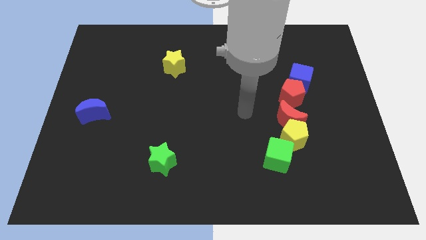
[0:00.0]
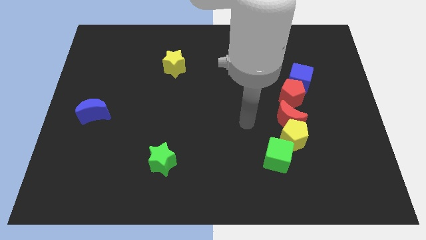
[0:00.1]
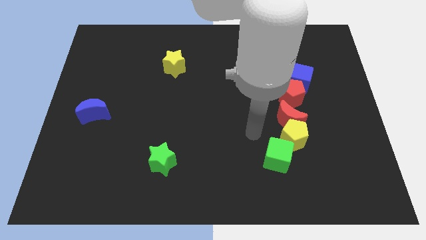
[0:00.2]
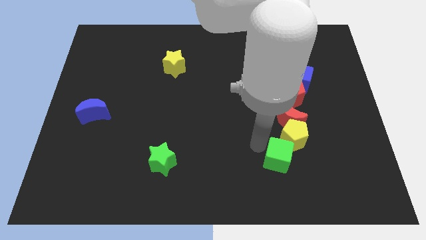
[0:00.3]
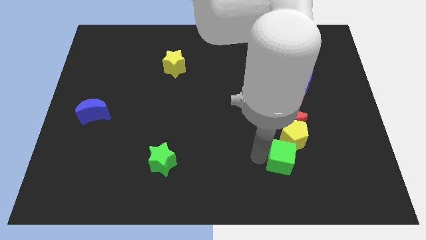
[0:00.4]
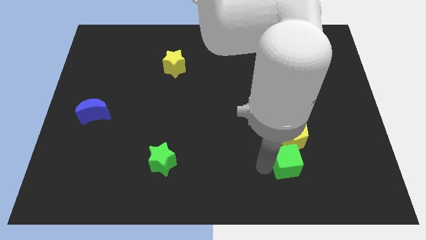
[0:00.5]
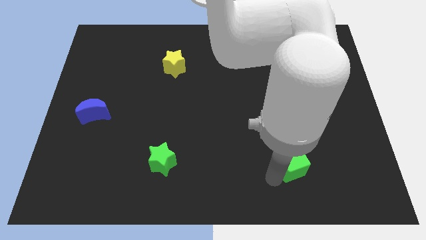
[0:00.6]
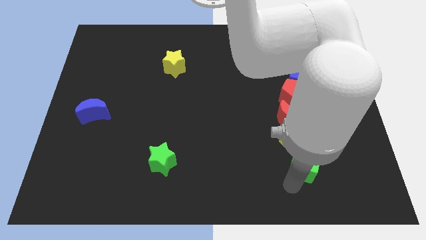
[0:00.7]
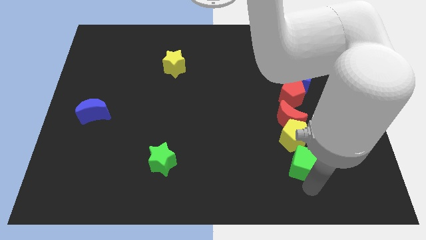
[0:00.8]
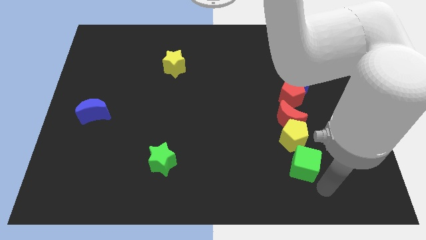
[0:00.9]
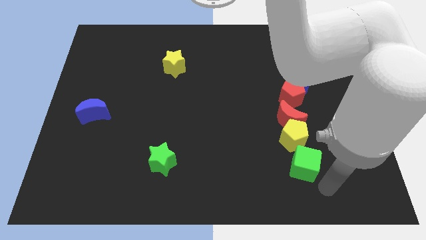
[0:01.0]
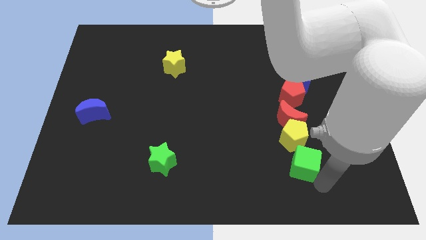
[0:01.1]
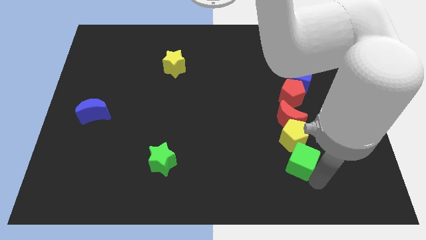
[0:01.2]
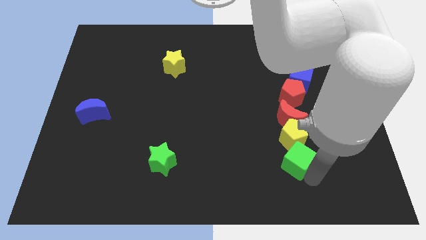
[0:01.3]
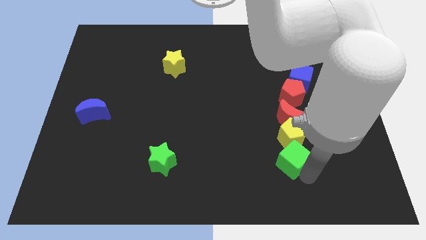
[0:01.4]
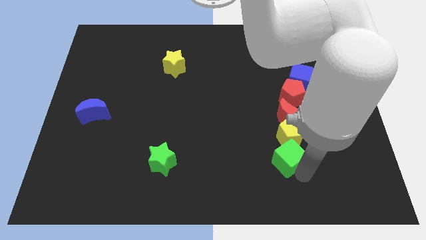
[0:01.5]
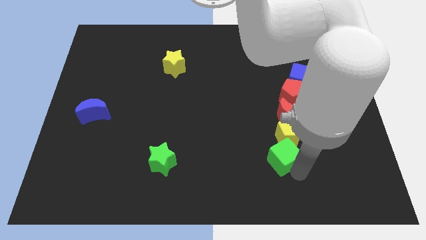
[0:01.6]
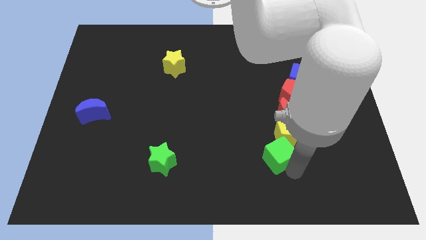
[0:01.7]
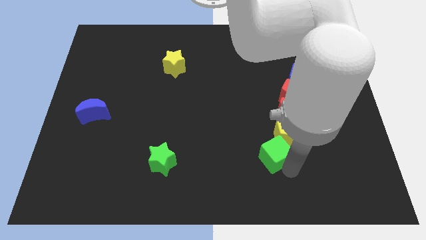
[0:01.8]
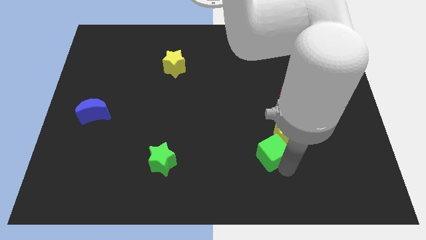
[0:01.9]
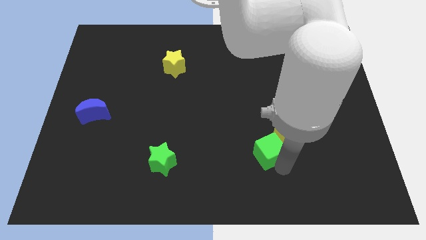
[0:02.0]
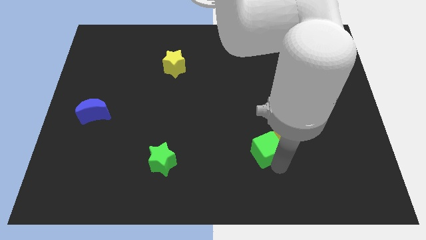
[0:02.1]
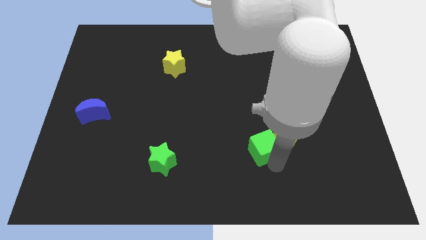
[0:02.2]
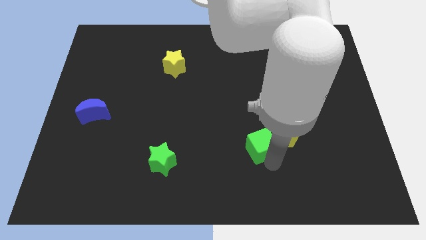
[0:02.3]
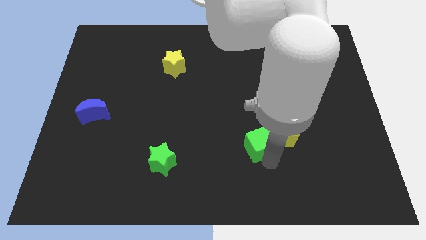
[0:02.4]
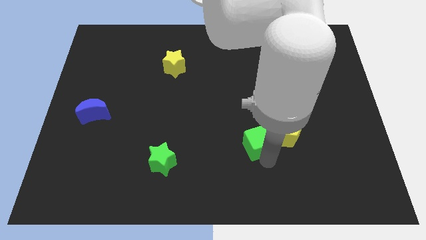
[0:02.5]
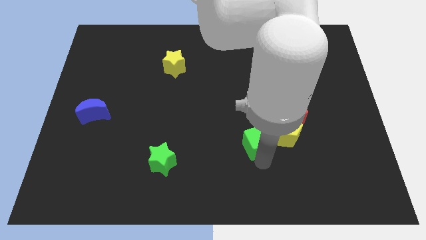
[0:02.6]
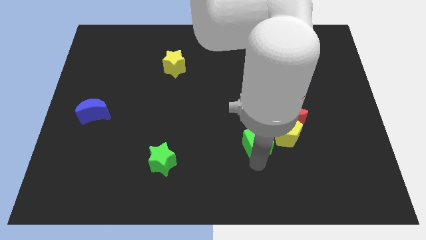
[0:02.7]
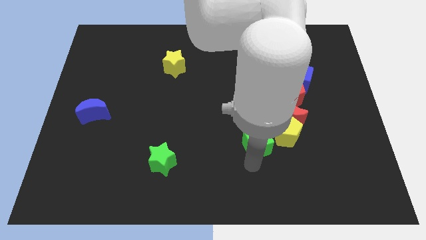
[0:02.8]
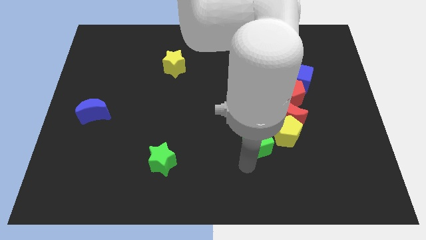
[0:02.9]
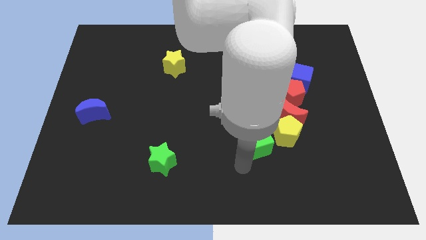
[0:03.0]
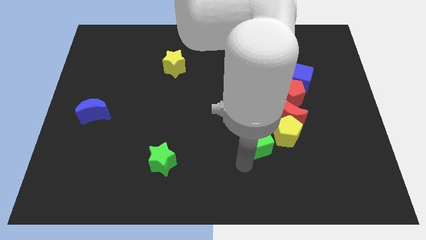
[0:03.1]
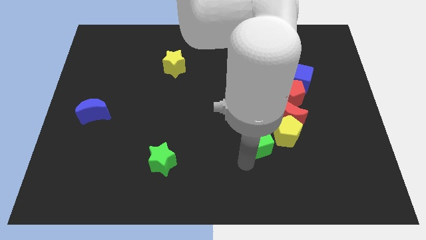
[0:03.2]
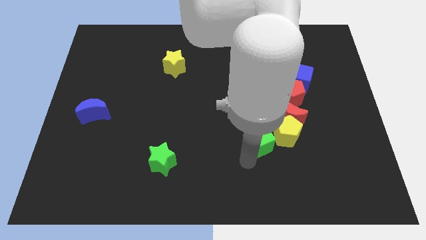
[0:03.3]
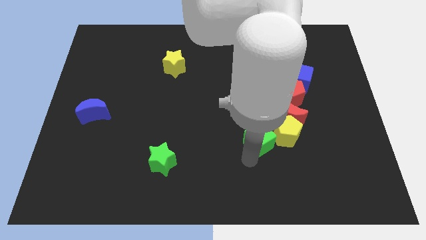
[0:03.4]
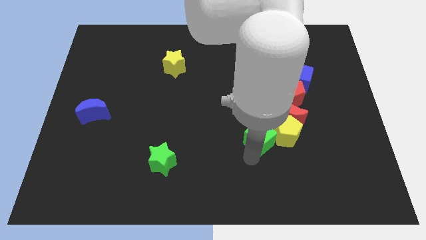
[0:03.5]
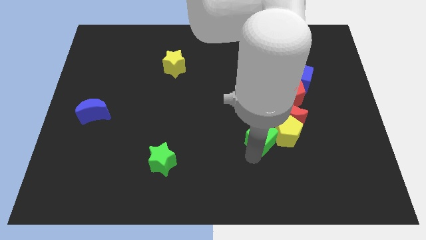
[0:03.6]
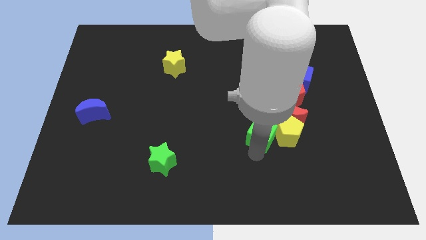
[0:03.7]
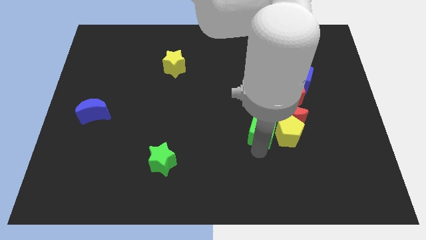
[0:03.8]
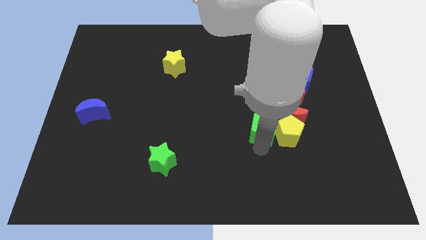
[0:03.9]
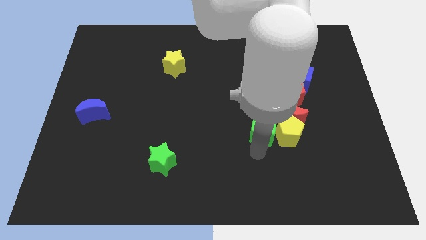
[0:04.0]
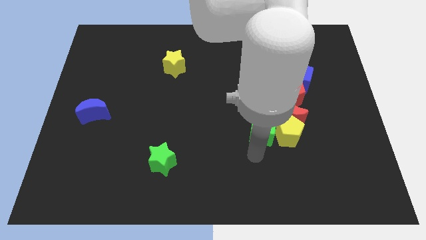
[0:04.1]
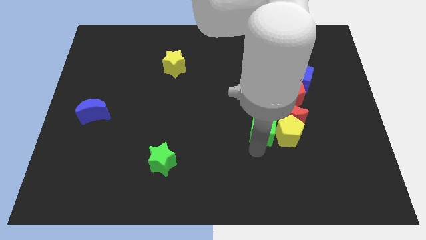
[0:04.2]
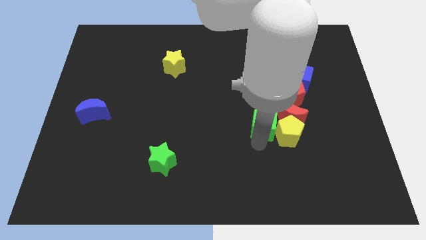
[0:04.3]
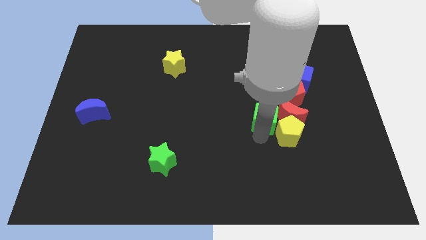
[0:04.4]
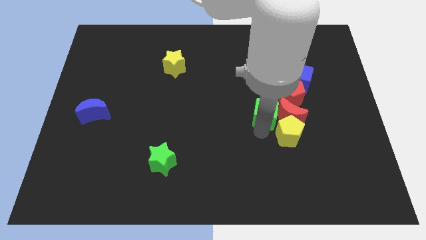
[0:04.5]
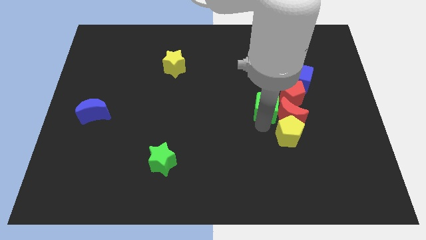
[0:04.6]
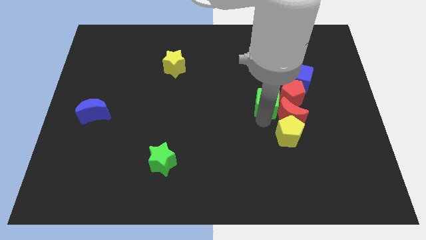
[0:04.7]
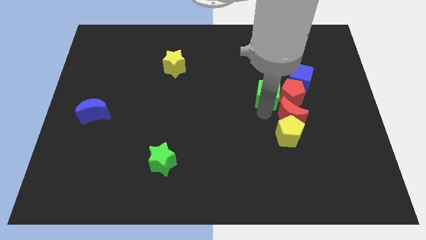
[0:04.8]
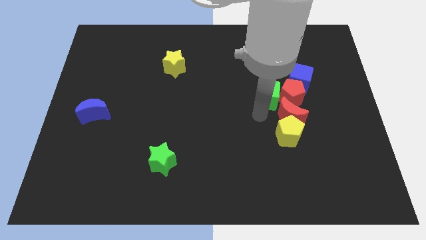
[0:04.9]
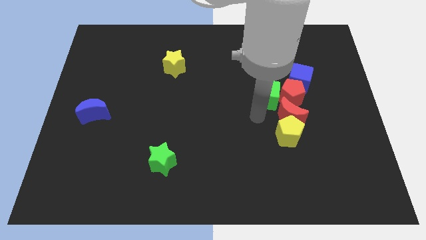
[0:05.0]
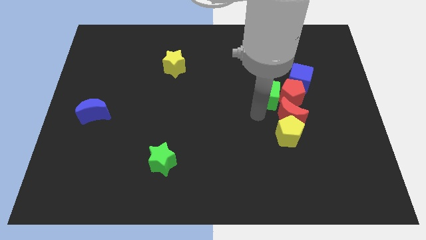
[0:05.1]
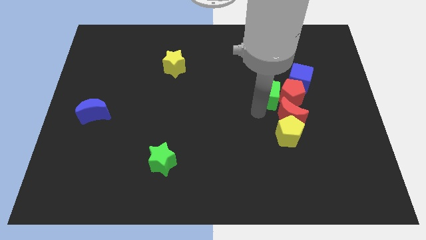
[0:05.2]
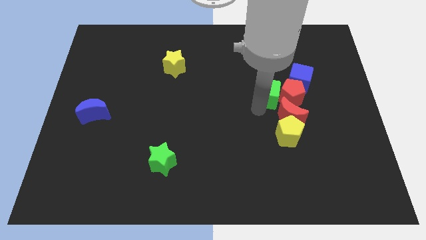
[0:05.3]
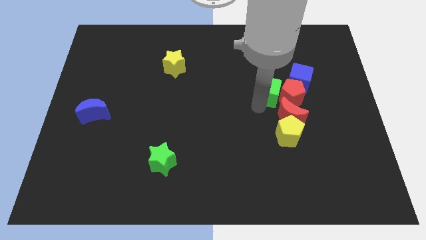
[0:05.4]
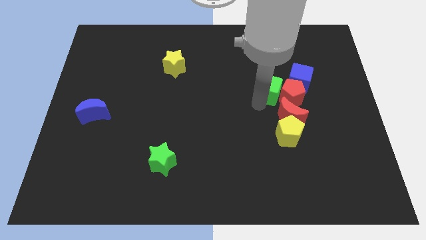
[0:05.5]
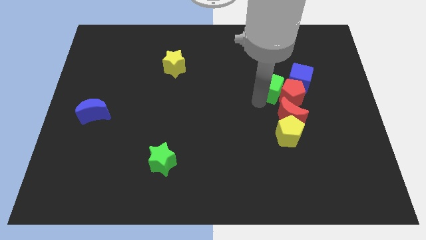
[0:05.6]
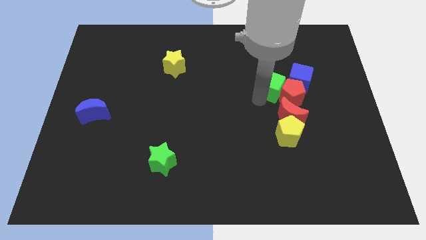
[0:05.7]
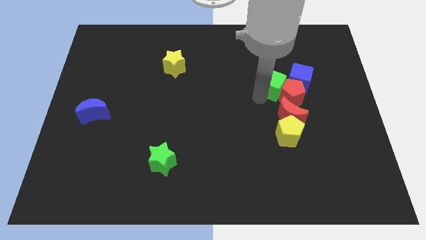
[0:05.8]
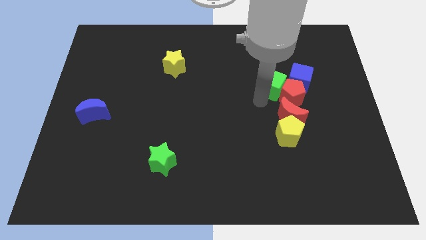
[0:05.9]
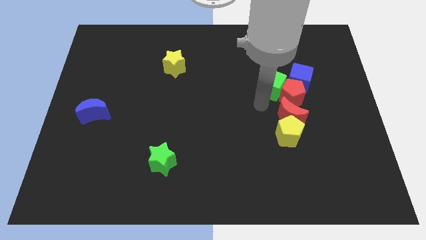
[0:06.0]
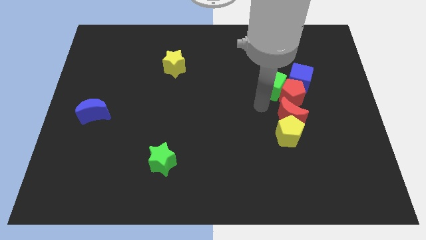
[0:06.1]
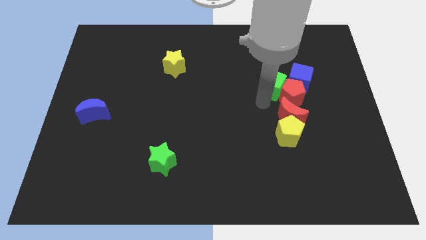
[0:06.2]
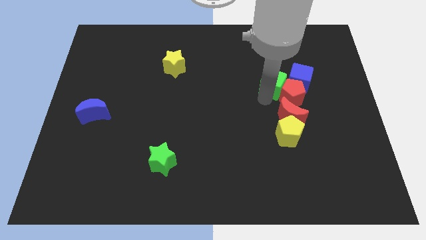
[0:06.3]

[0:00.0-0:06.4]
push the green cube to the top of the red pentagon

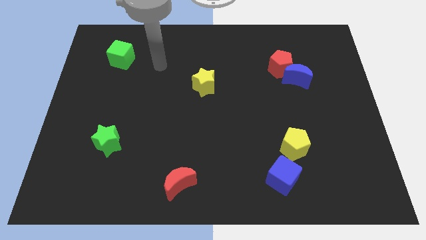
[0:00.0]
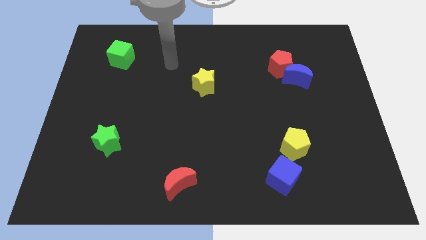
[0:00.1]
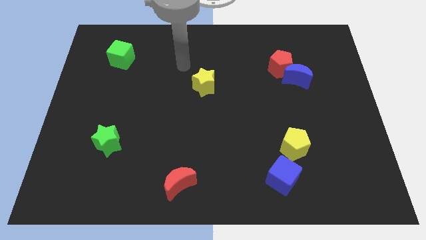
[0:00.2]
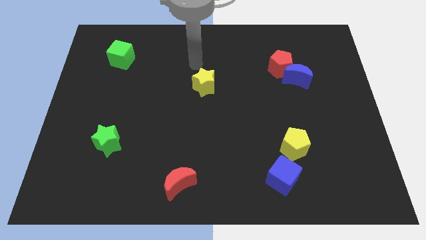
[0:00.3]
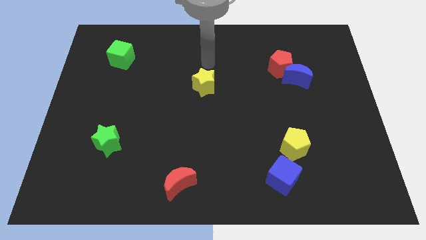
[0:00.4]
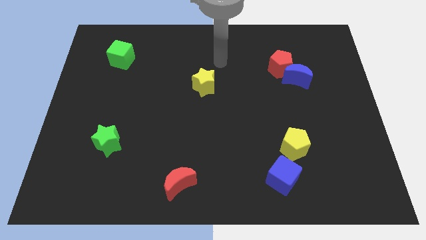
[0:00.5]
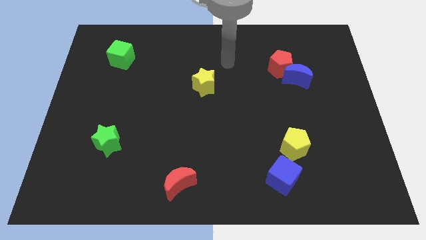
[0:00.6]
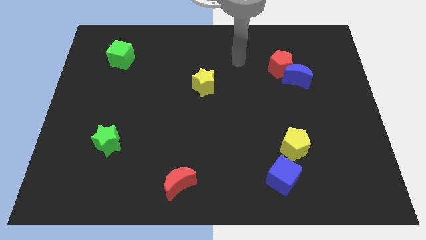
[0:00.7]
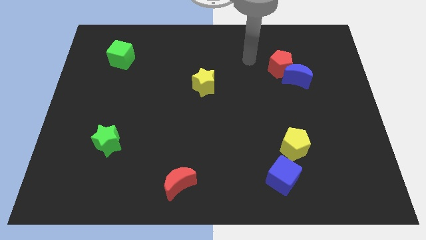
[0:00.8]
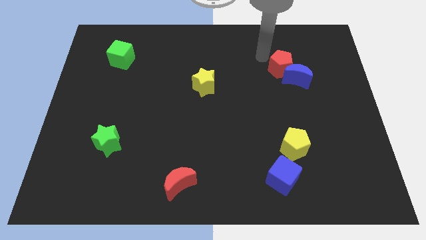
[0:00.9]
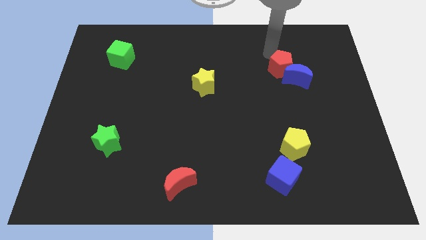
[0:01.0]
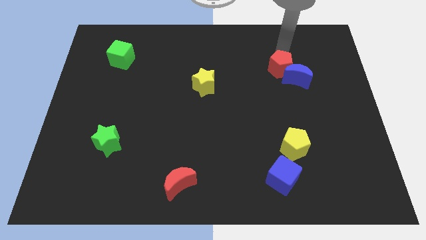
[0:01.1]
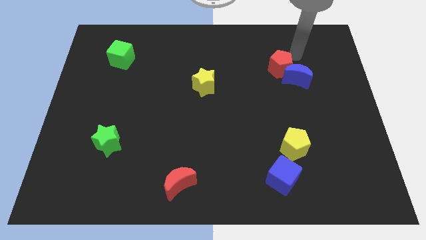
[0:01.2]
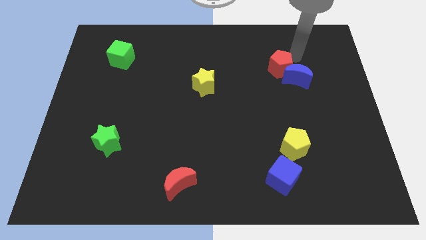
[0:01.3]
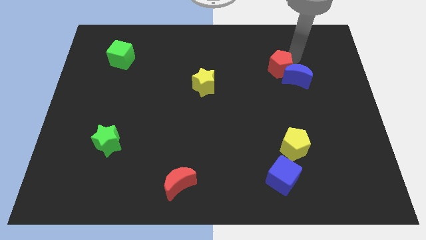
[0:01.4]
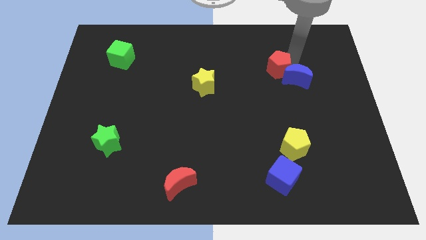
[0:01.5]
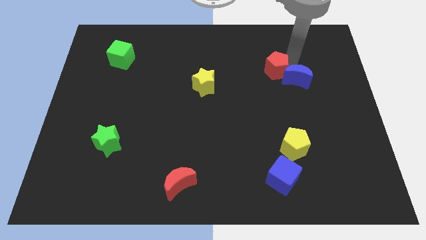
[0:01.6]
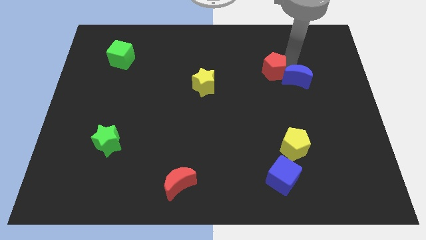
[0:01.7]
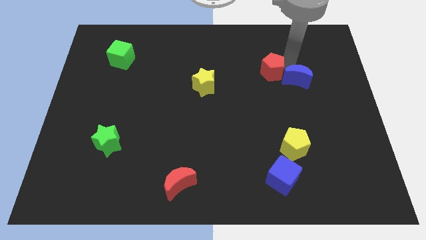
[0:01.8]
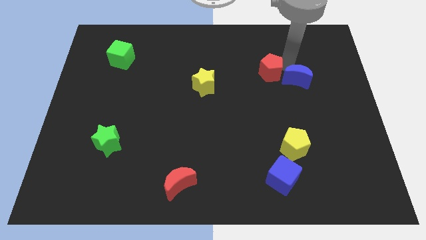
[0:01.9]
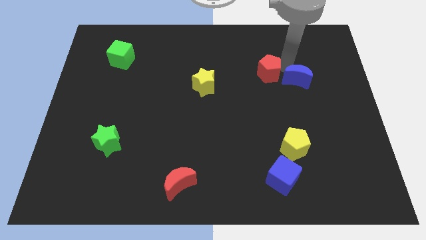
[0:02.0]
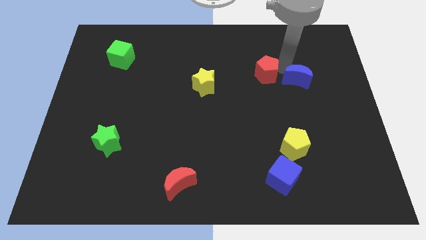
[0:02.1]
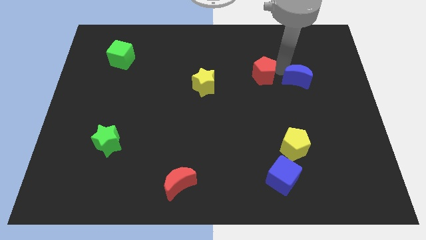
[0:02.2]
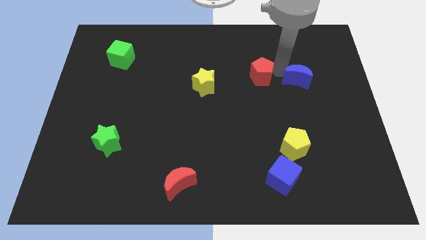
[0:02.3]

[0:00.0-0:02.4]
put the red pentagon just right of the yellow star
